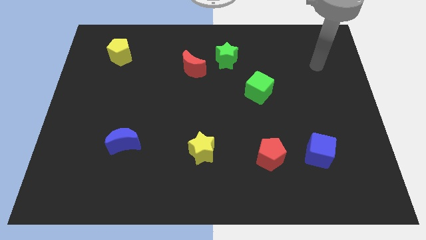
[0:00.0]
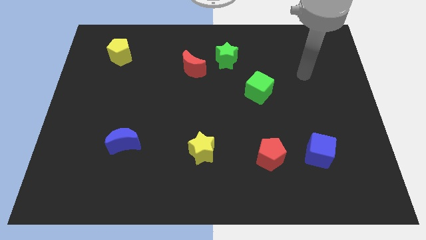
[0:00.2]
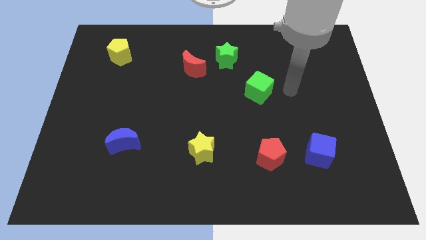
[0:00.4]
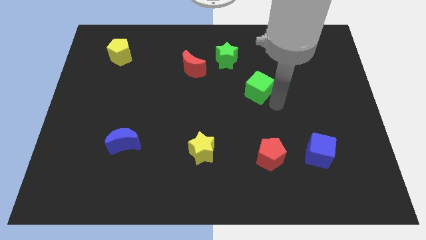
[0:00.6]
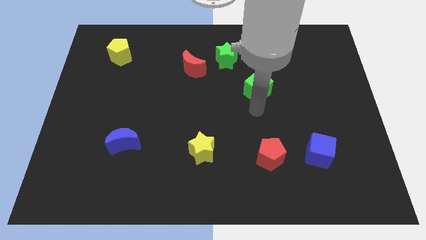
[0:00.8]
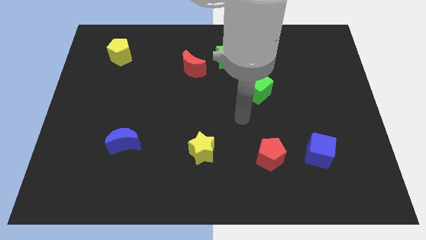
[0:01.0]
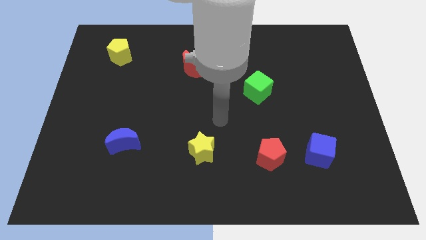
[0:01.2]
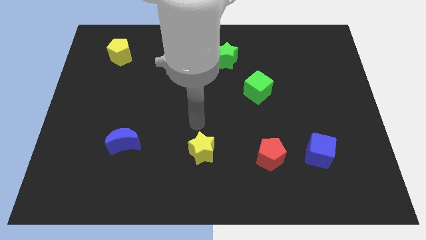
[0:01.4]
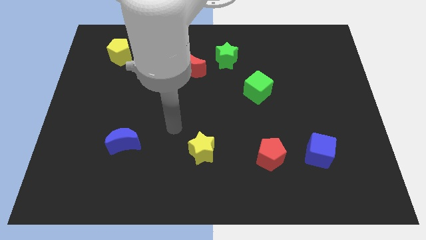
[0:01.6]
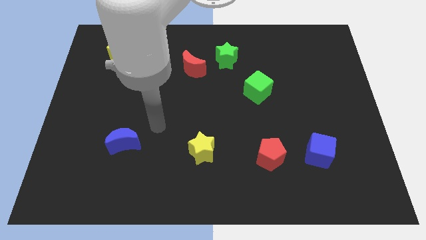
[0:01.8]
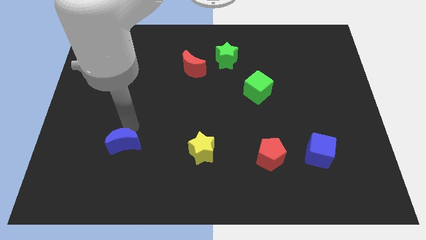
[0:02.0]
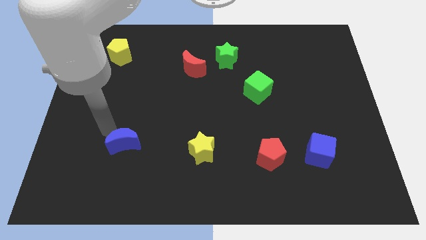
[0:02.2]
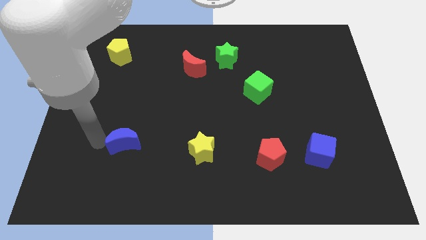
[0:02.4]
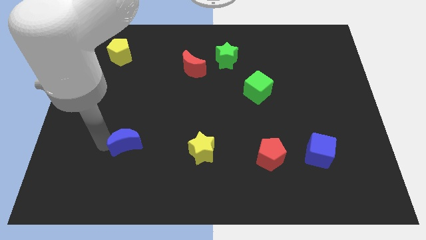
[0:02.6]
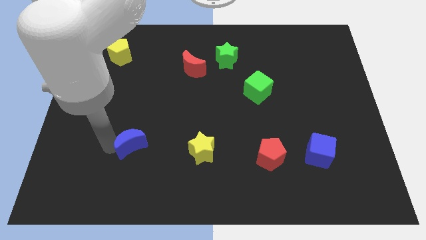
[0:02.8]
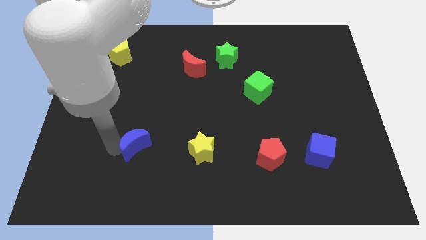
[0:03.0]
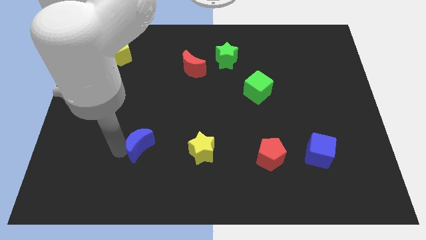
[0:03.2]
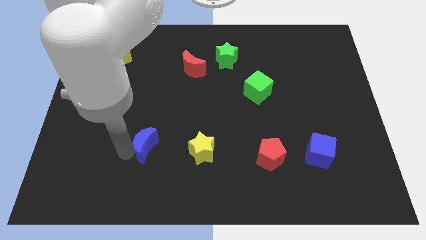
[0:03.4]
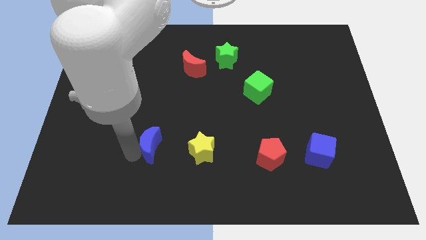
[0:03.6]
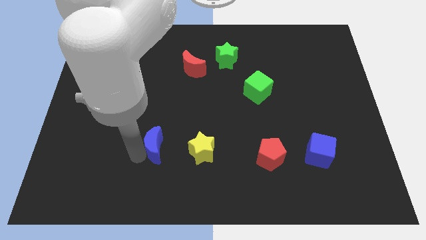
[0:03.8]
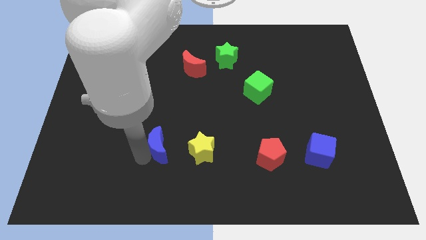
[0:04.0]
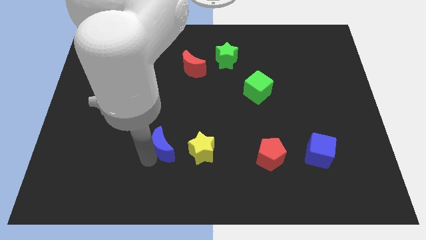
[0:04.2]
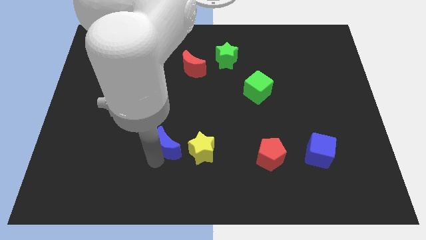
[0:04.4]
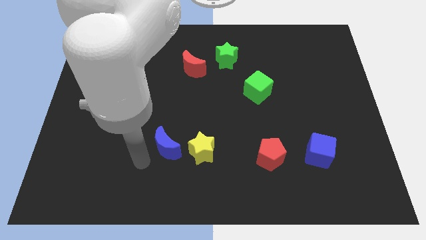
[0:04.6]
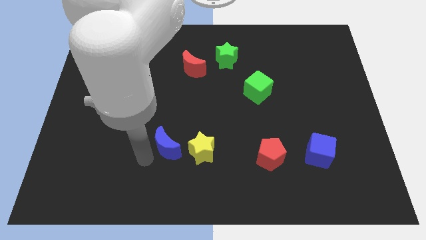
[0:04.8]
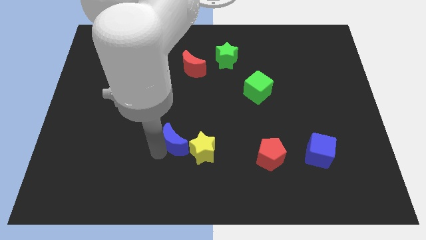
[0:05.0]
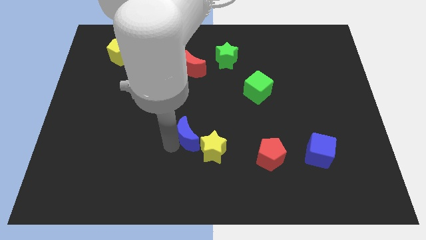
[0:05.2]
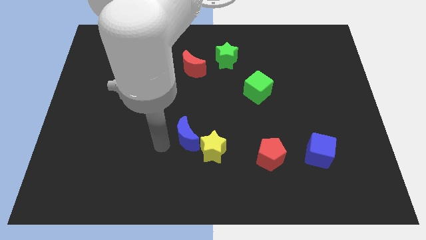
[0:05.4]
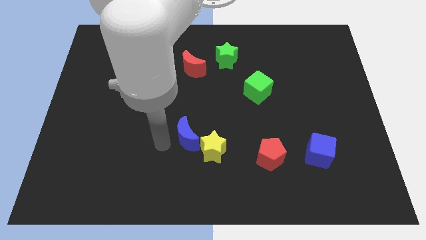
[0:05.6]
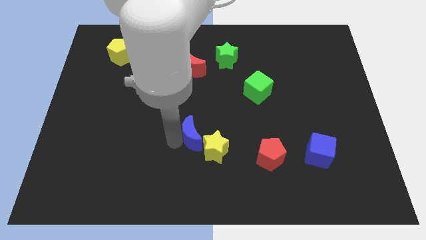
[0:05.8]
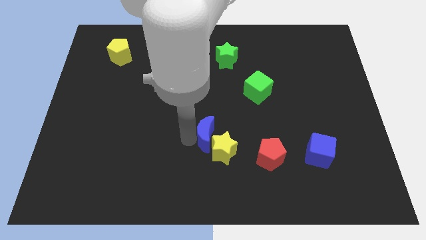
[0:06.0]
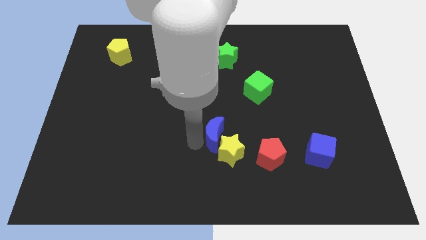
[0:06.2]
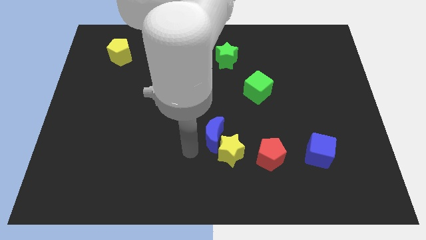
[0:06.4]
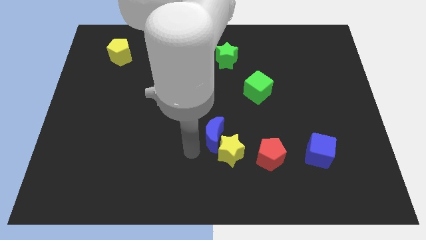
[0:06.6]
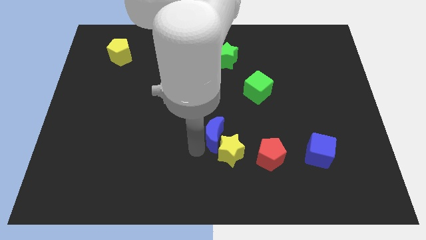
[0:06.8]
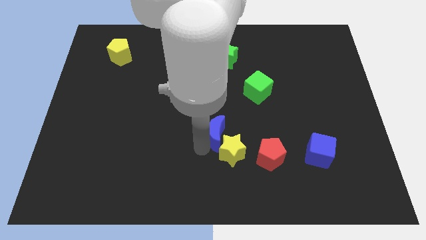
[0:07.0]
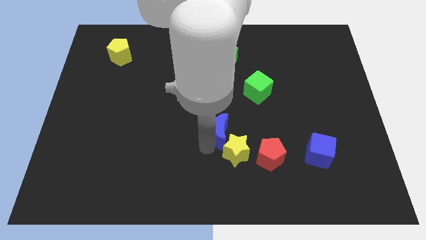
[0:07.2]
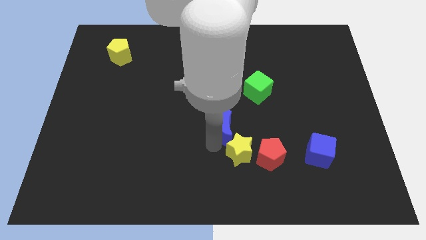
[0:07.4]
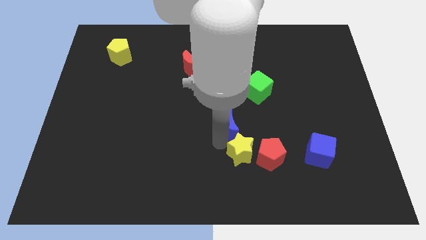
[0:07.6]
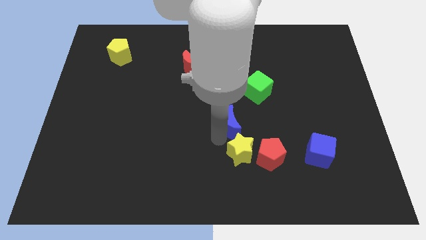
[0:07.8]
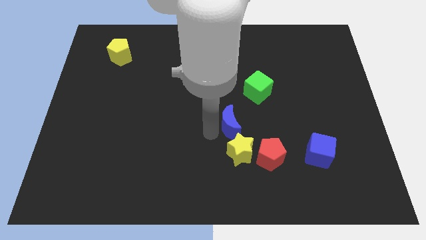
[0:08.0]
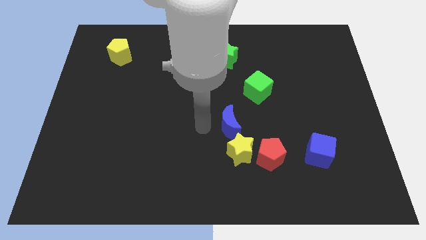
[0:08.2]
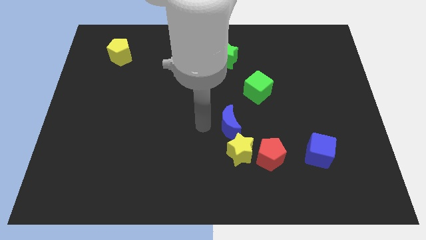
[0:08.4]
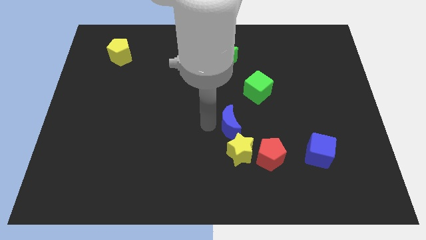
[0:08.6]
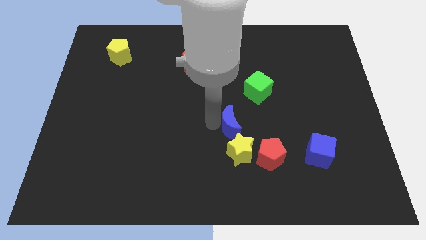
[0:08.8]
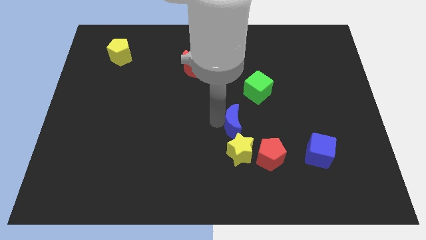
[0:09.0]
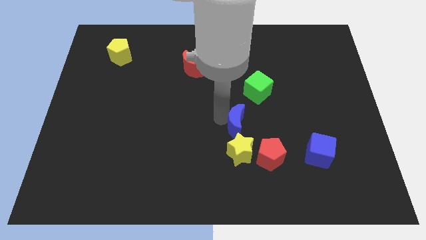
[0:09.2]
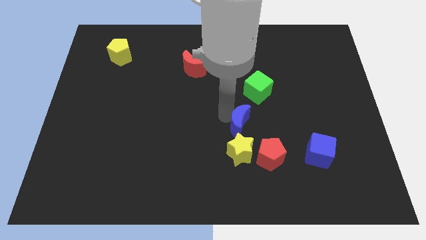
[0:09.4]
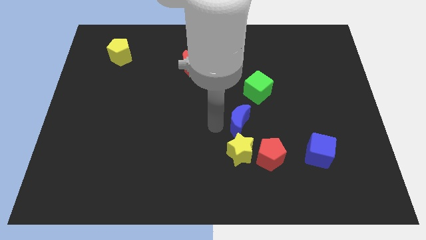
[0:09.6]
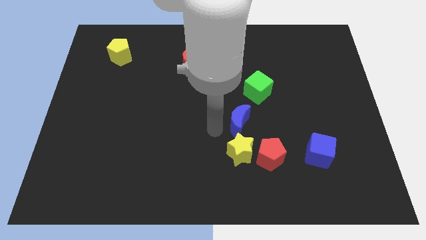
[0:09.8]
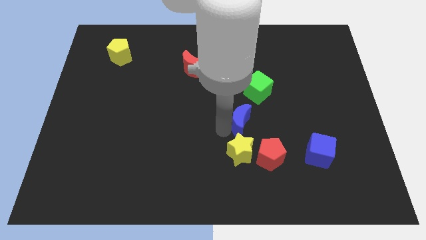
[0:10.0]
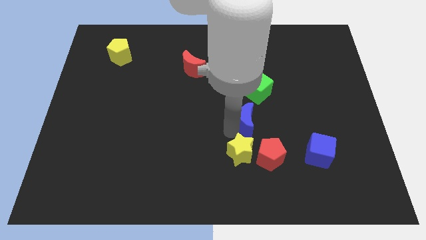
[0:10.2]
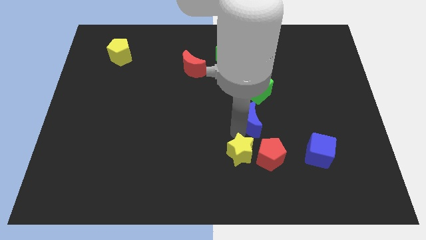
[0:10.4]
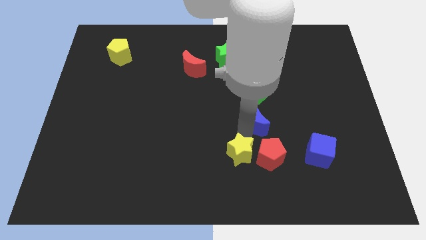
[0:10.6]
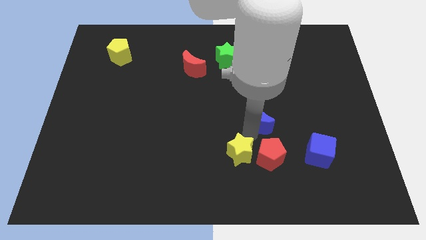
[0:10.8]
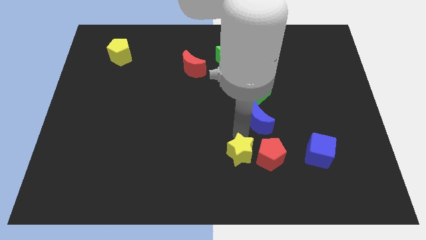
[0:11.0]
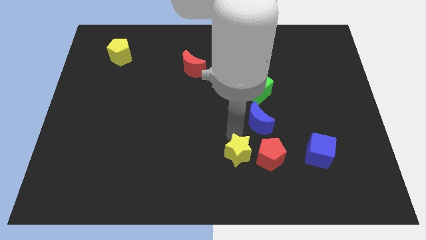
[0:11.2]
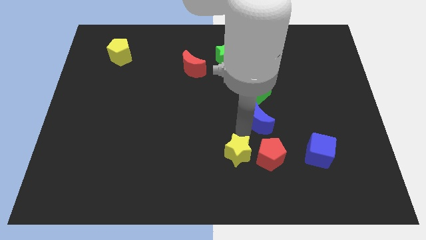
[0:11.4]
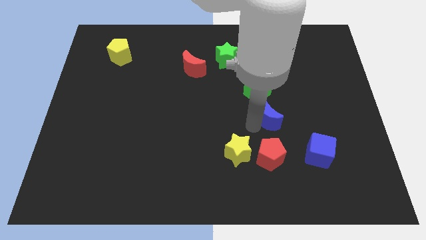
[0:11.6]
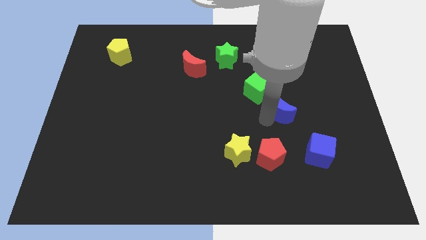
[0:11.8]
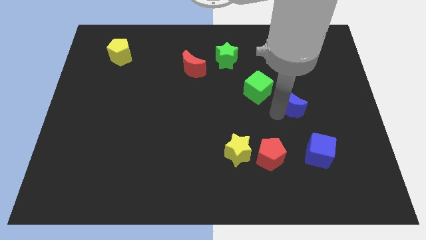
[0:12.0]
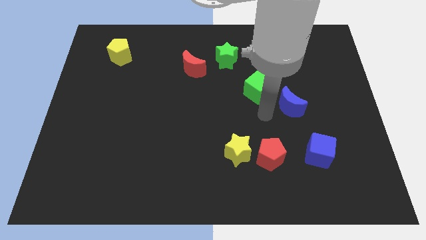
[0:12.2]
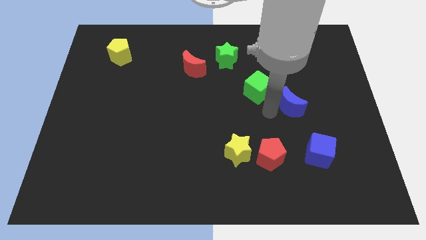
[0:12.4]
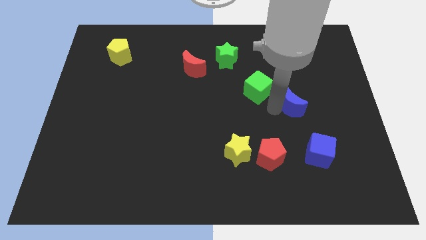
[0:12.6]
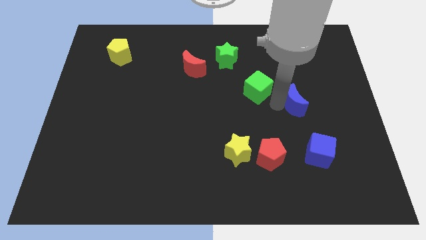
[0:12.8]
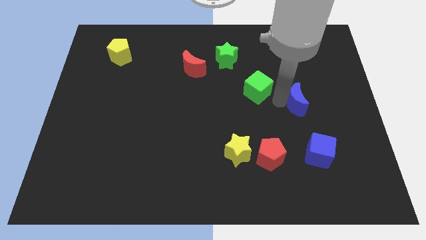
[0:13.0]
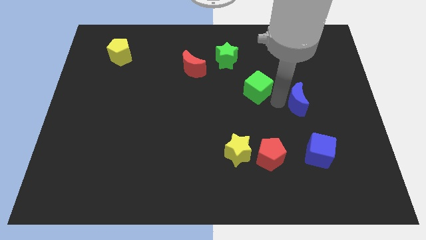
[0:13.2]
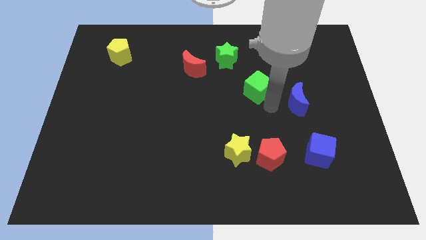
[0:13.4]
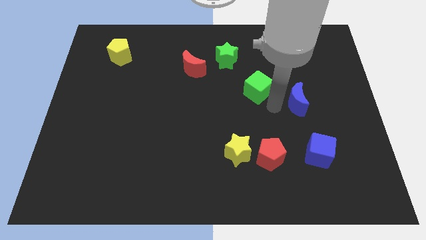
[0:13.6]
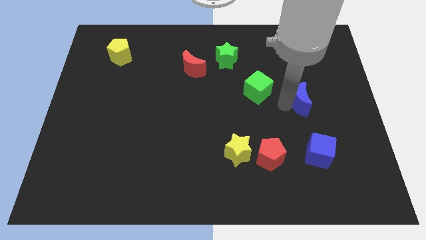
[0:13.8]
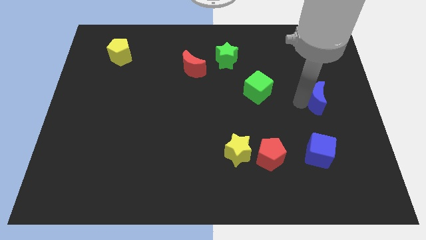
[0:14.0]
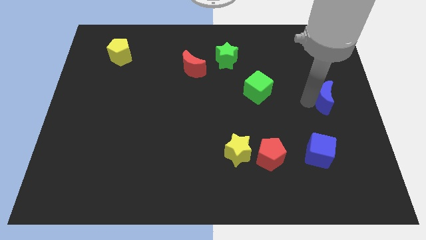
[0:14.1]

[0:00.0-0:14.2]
slide the blue moon to the right side
